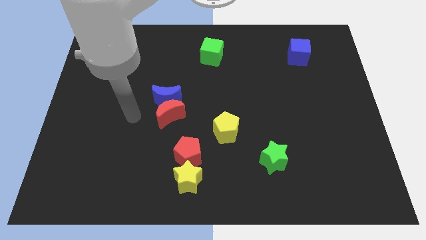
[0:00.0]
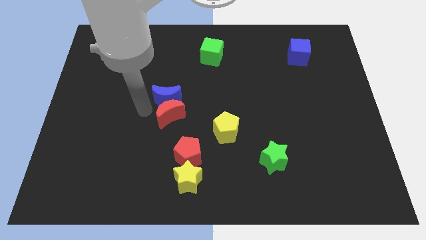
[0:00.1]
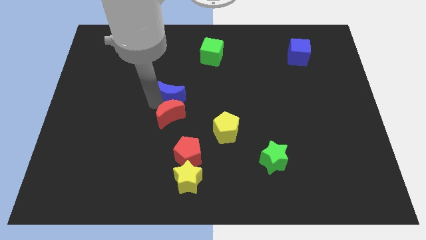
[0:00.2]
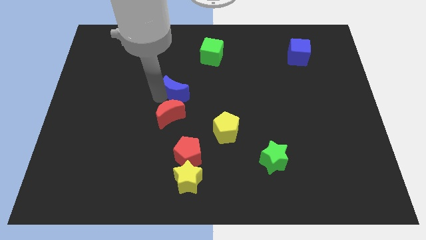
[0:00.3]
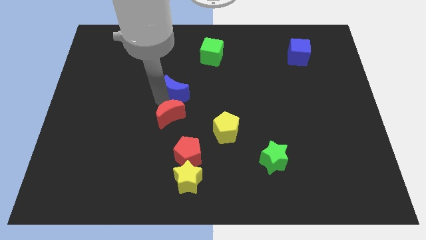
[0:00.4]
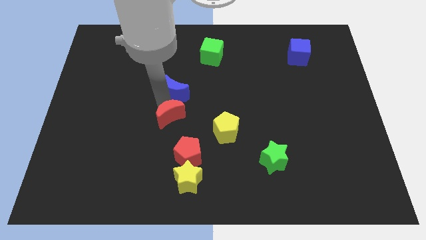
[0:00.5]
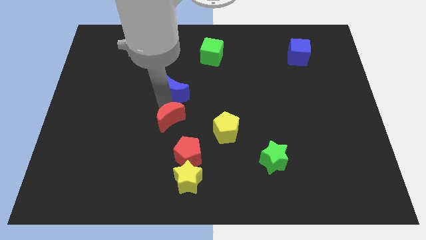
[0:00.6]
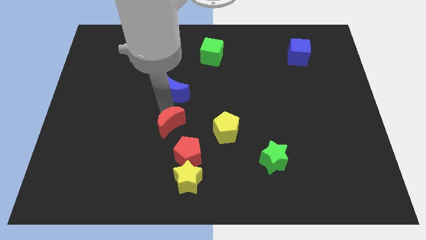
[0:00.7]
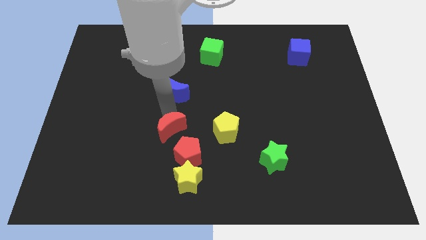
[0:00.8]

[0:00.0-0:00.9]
pull the red moon apart from the blue moon

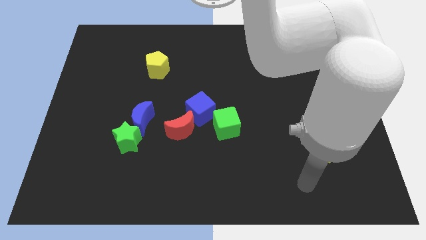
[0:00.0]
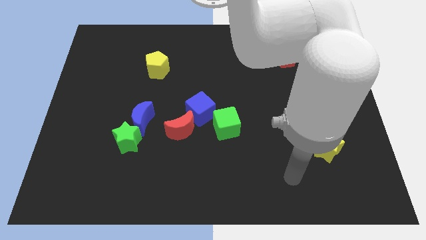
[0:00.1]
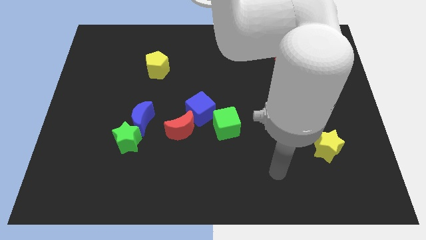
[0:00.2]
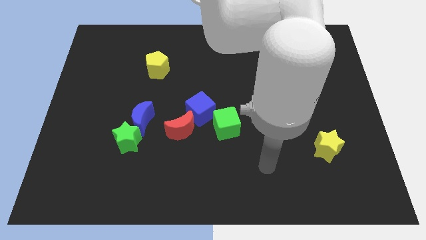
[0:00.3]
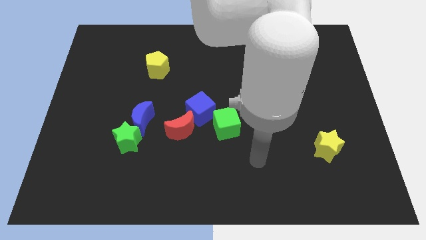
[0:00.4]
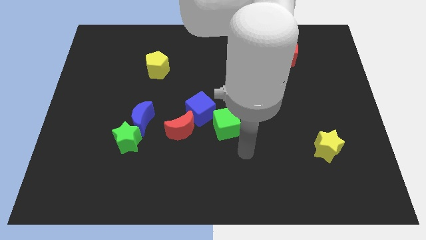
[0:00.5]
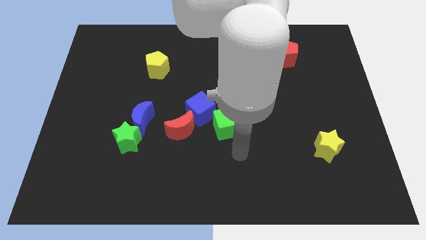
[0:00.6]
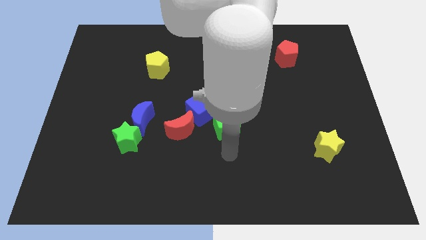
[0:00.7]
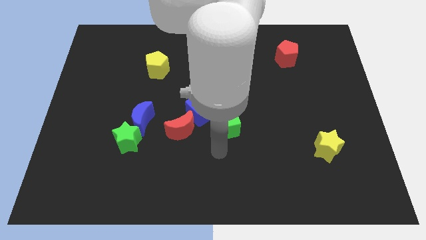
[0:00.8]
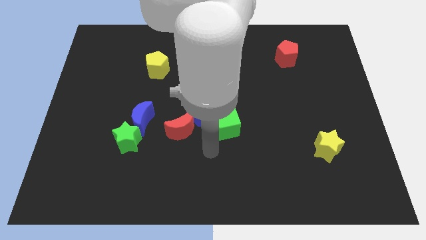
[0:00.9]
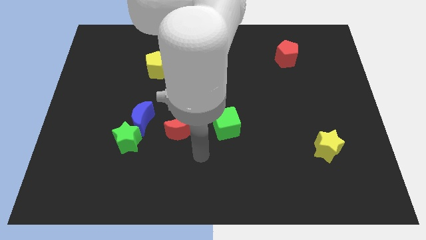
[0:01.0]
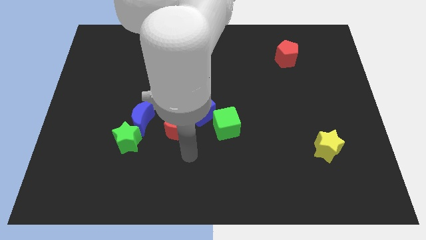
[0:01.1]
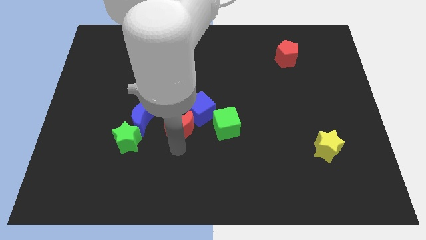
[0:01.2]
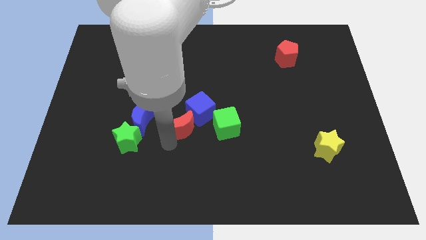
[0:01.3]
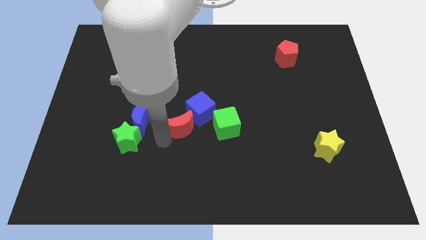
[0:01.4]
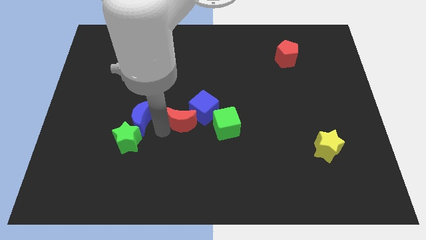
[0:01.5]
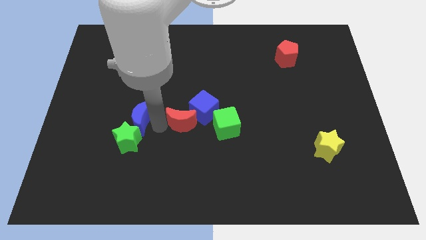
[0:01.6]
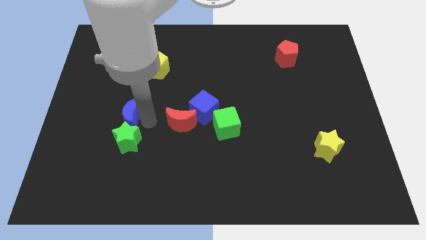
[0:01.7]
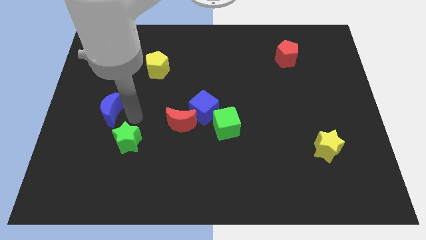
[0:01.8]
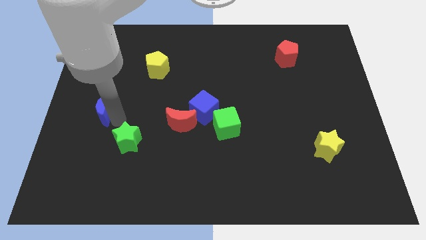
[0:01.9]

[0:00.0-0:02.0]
move the green star away from the blue moon

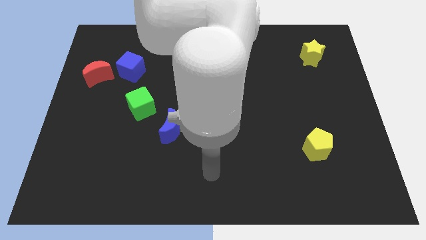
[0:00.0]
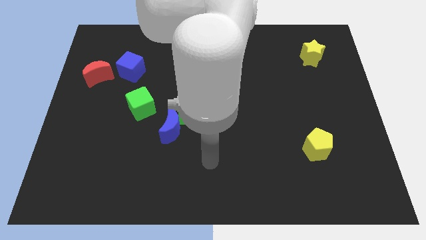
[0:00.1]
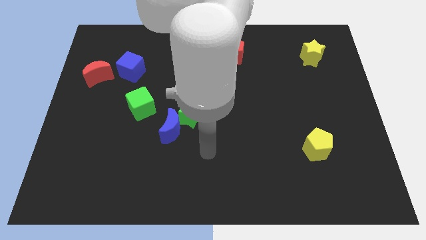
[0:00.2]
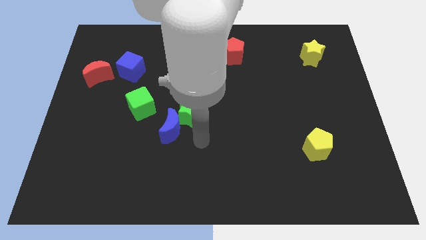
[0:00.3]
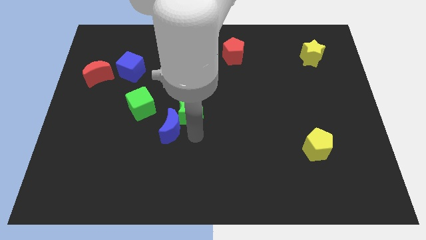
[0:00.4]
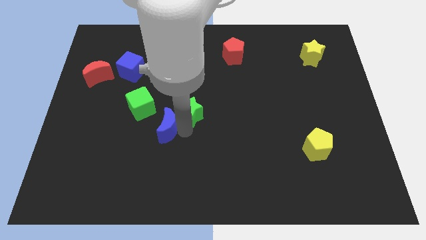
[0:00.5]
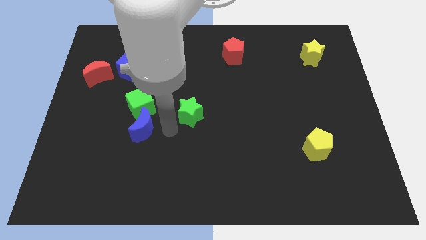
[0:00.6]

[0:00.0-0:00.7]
separate the green star from the blue moon

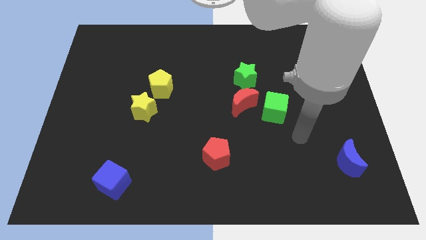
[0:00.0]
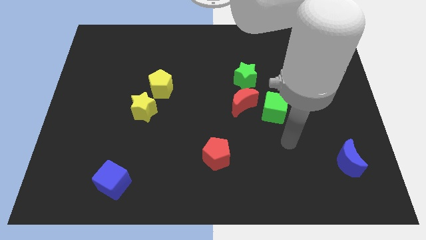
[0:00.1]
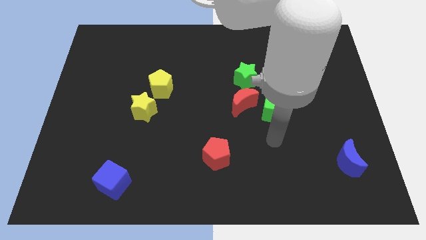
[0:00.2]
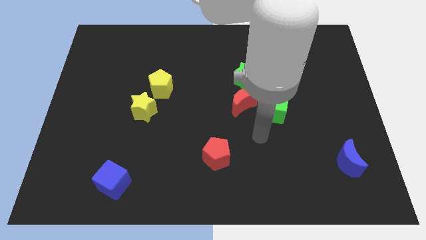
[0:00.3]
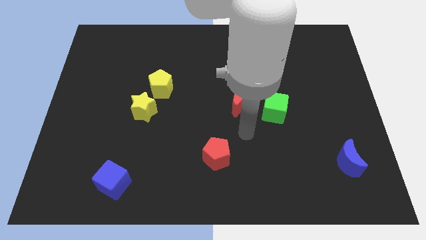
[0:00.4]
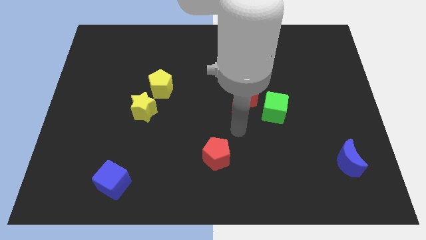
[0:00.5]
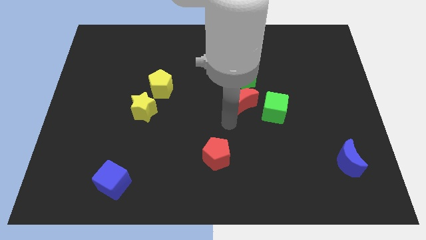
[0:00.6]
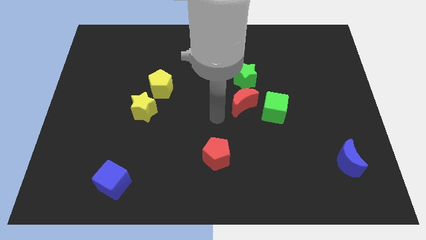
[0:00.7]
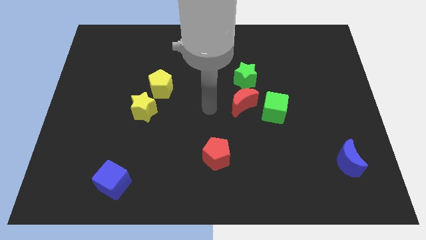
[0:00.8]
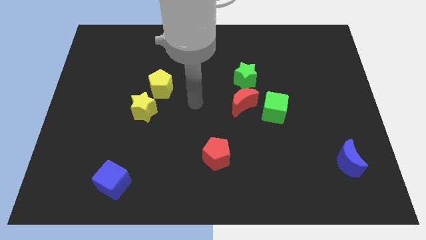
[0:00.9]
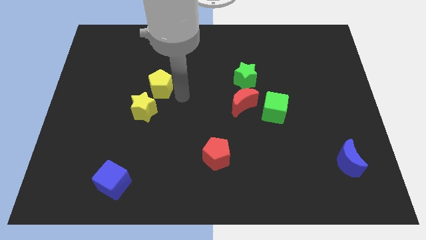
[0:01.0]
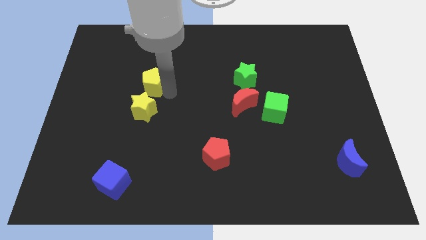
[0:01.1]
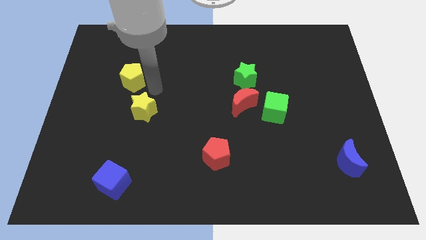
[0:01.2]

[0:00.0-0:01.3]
pull the yellow star apart from the yellow pentagon

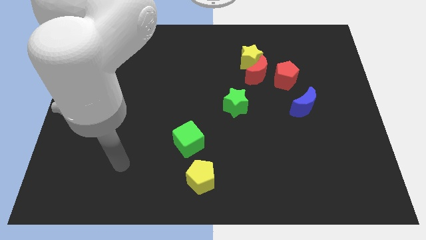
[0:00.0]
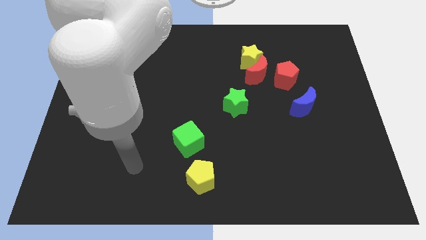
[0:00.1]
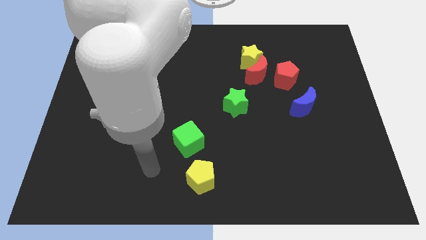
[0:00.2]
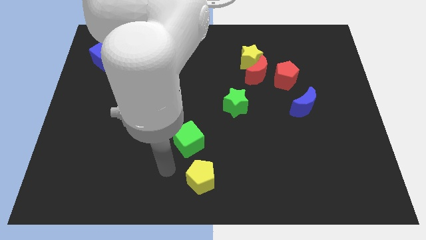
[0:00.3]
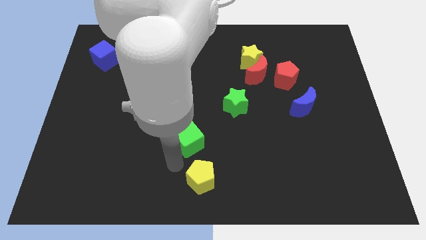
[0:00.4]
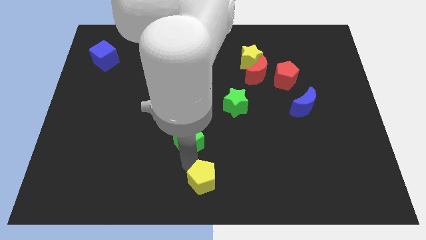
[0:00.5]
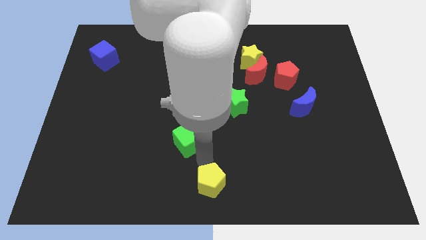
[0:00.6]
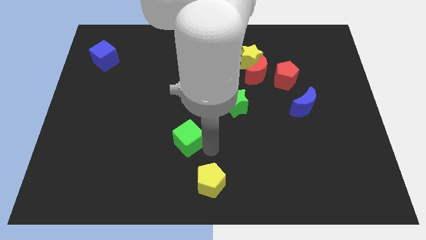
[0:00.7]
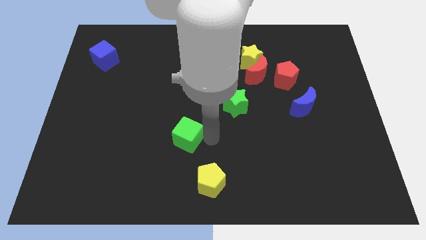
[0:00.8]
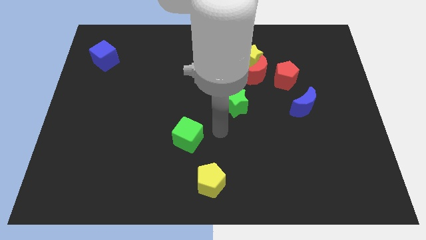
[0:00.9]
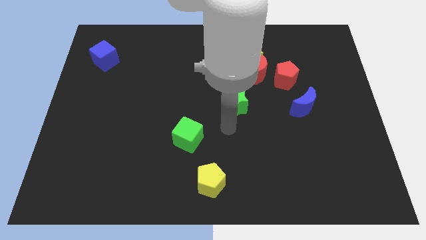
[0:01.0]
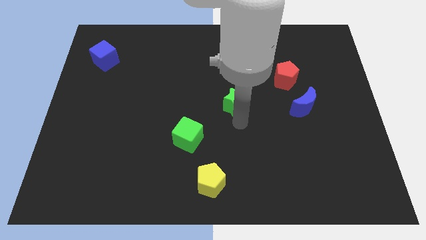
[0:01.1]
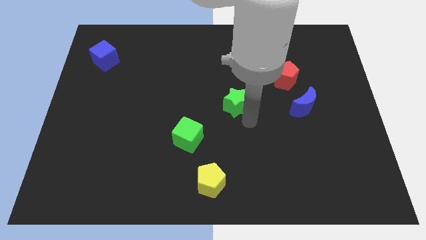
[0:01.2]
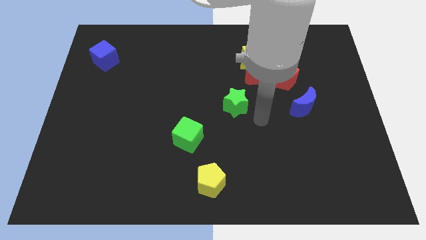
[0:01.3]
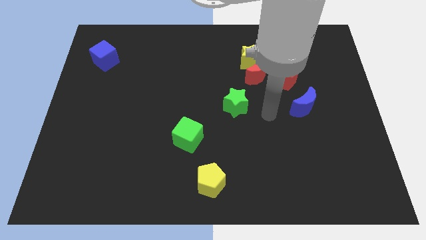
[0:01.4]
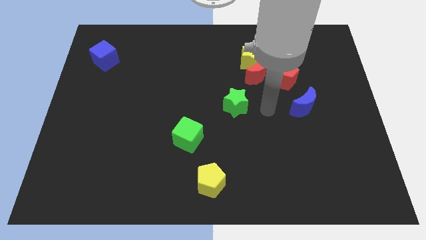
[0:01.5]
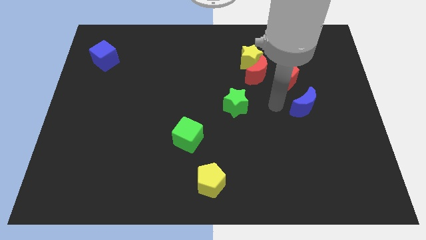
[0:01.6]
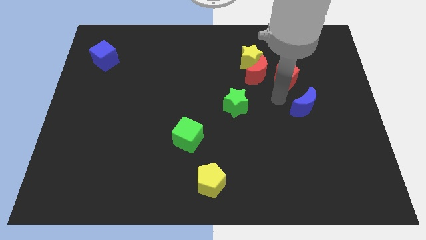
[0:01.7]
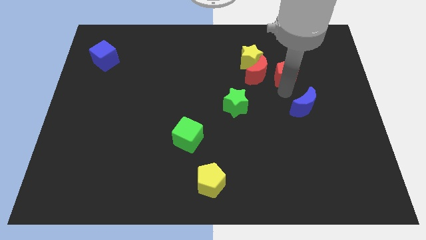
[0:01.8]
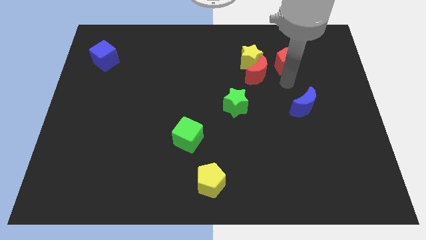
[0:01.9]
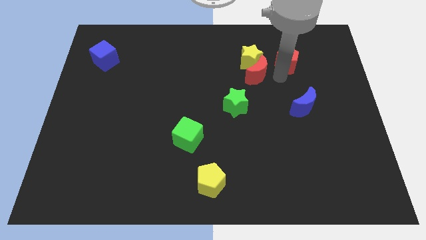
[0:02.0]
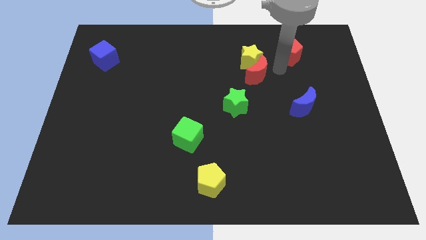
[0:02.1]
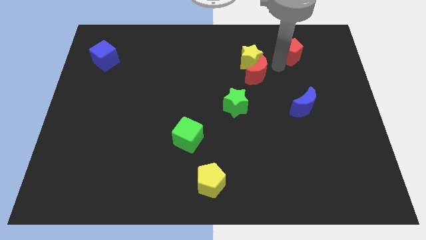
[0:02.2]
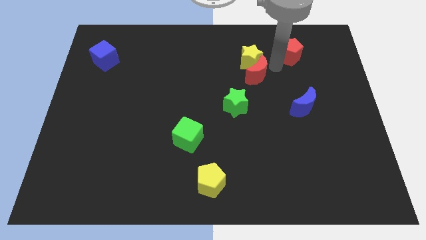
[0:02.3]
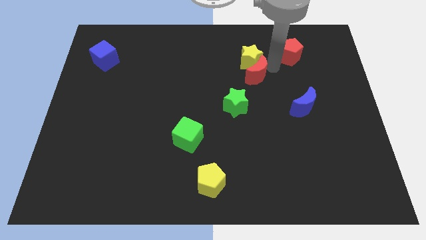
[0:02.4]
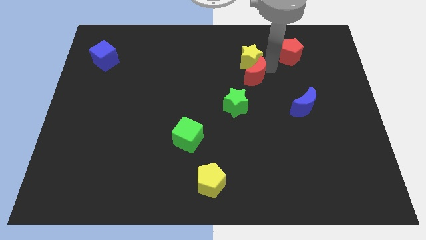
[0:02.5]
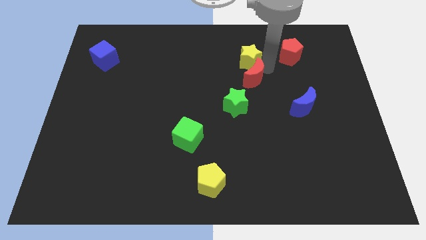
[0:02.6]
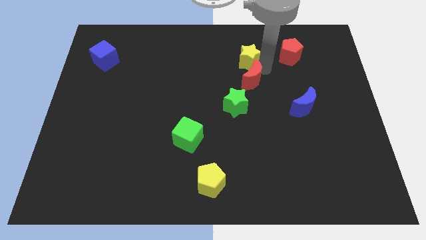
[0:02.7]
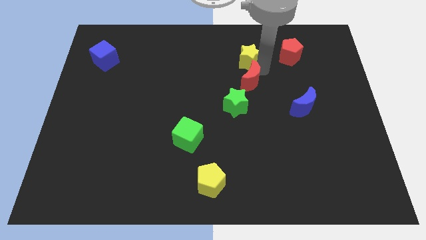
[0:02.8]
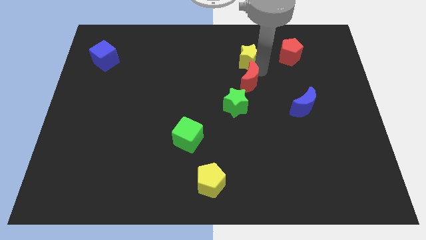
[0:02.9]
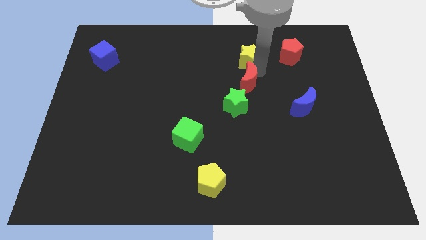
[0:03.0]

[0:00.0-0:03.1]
pull the red moon apart from the yellow star and red pentagon

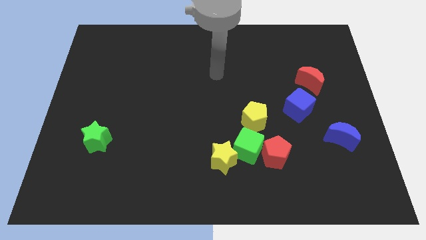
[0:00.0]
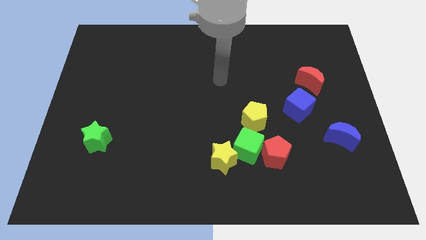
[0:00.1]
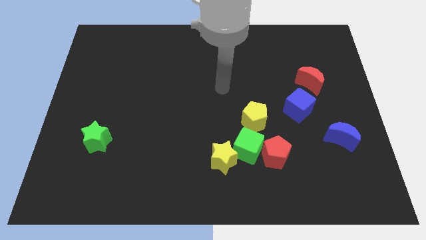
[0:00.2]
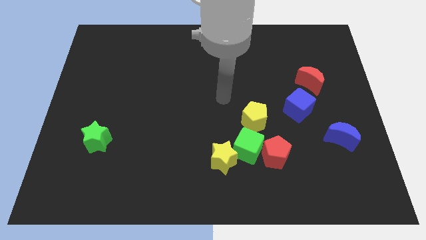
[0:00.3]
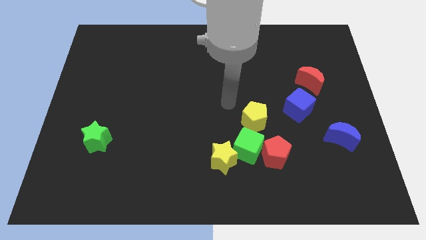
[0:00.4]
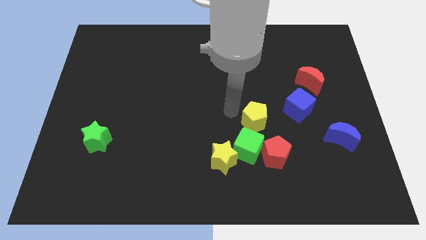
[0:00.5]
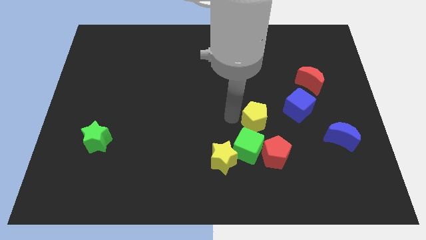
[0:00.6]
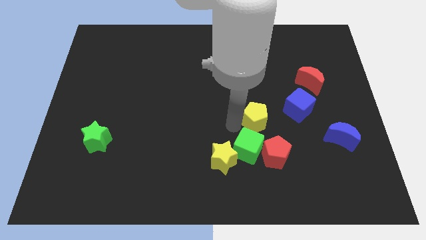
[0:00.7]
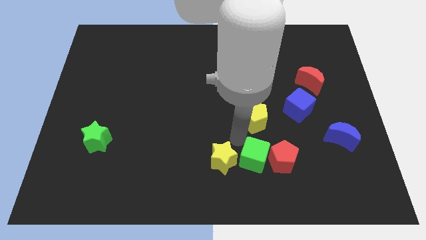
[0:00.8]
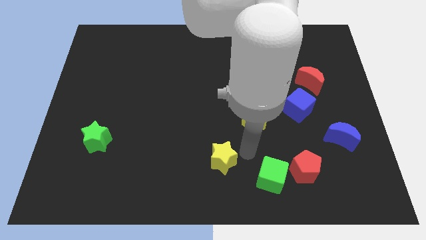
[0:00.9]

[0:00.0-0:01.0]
separate the yellow star from the green cube

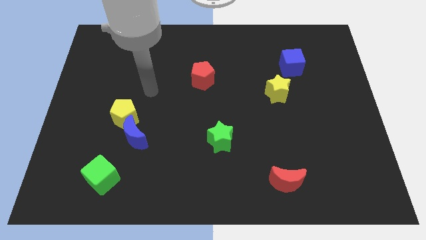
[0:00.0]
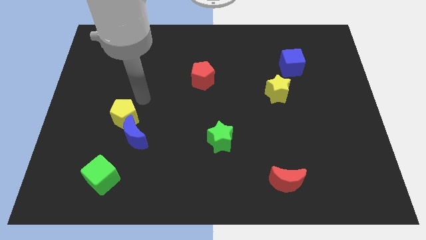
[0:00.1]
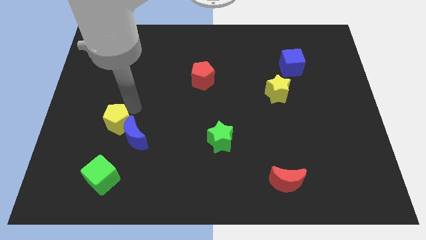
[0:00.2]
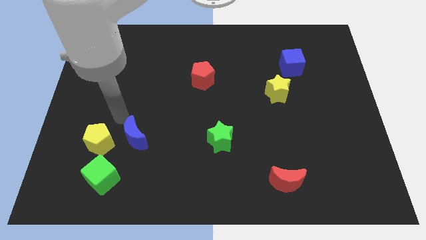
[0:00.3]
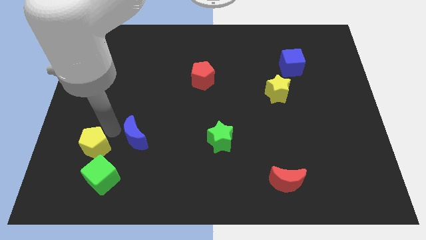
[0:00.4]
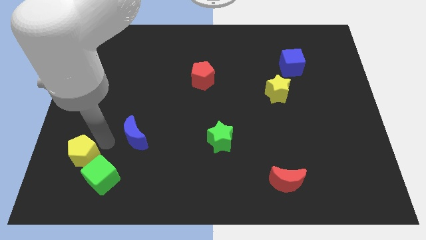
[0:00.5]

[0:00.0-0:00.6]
separate the blue moon from the yellow pentagon
